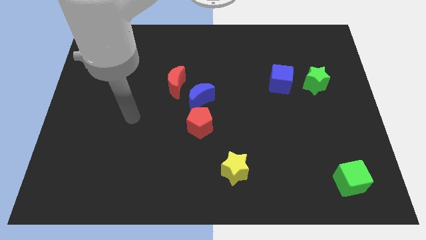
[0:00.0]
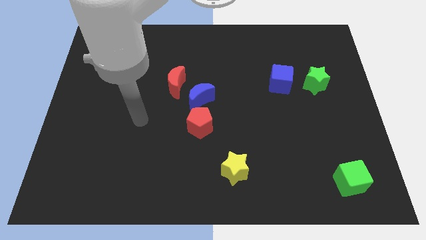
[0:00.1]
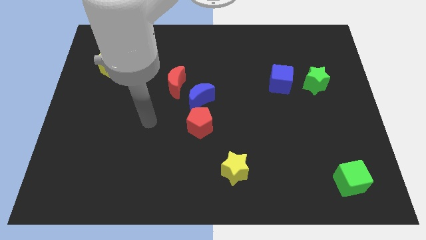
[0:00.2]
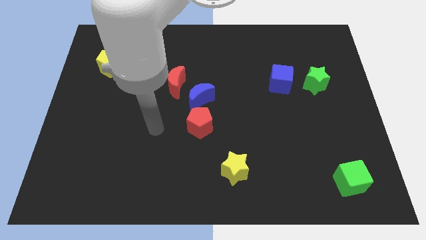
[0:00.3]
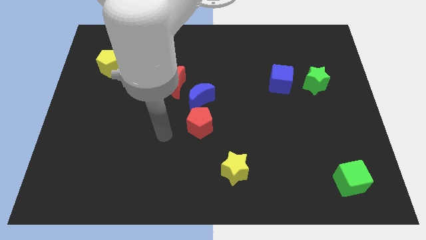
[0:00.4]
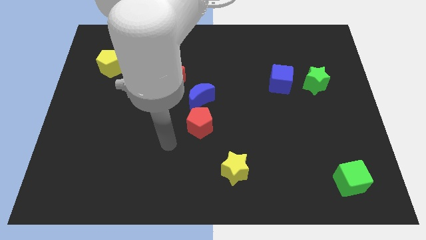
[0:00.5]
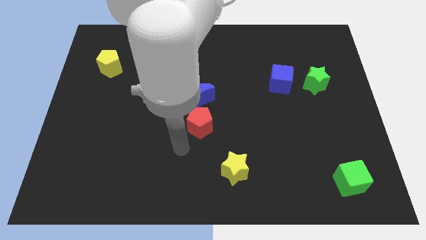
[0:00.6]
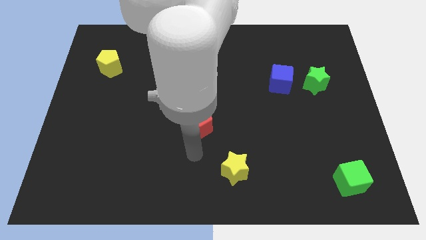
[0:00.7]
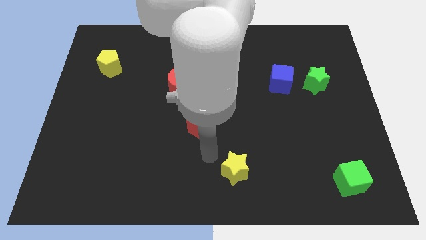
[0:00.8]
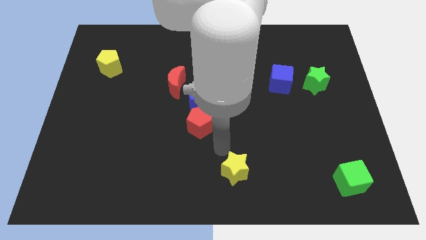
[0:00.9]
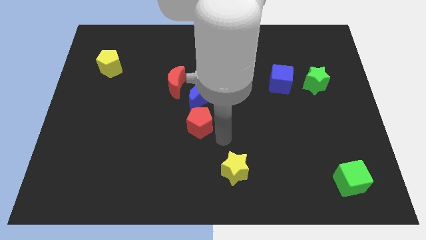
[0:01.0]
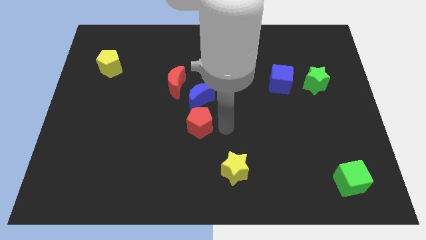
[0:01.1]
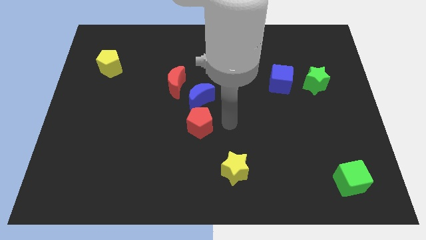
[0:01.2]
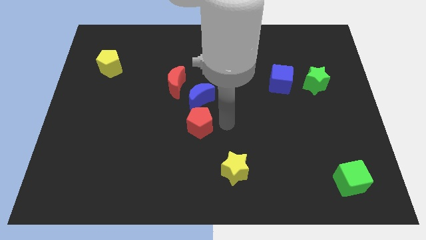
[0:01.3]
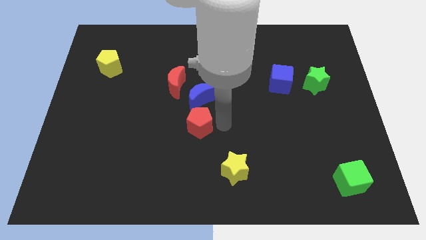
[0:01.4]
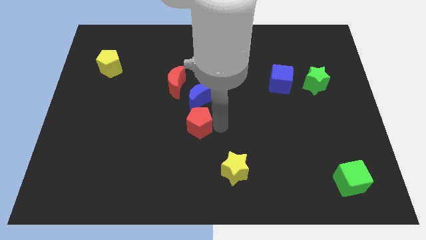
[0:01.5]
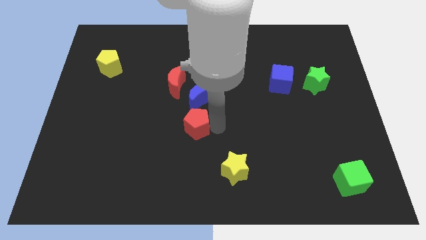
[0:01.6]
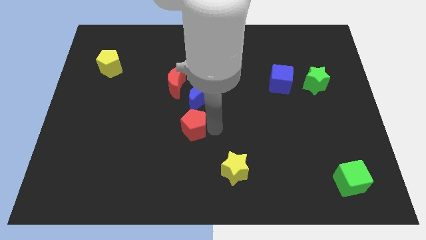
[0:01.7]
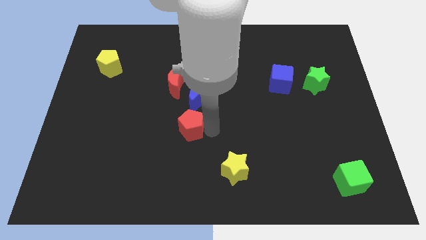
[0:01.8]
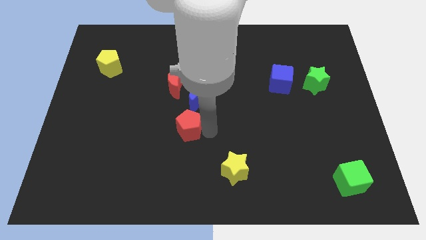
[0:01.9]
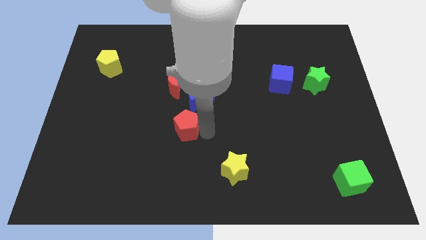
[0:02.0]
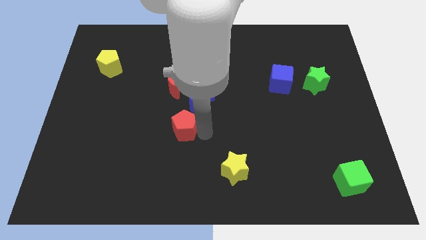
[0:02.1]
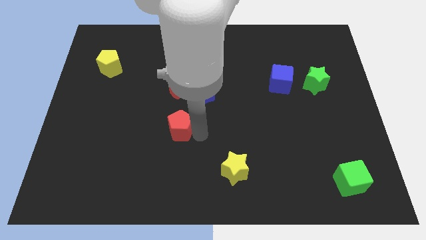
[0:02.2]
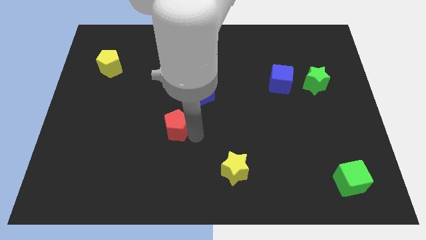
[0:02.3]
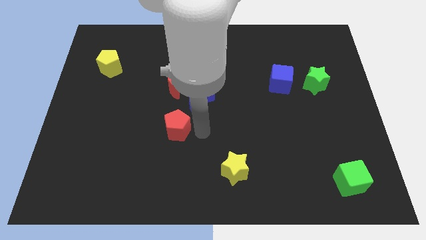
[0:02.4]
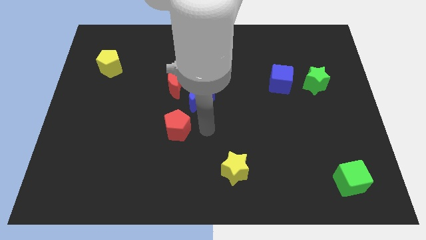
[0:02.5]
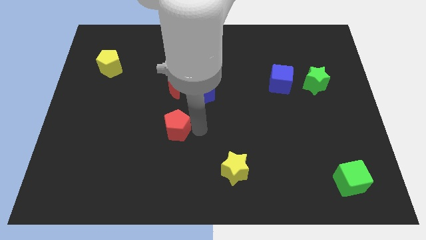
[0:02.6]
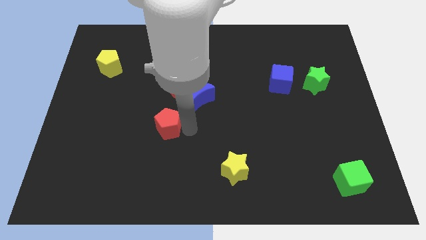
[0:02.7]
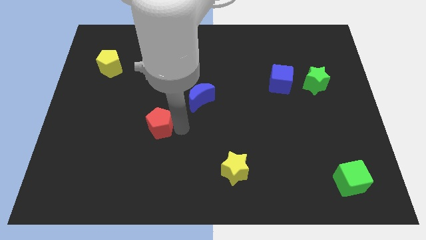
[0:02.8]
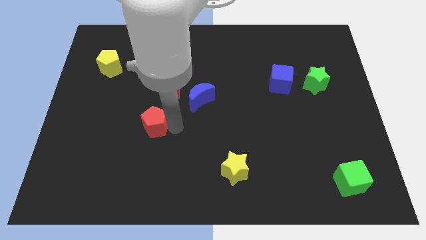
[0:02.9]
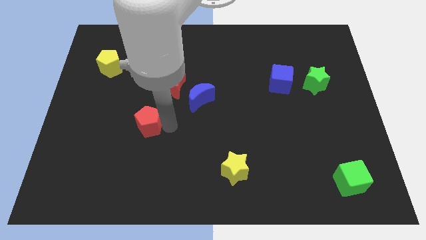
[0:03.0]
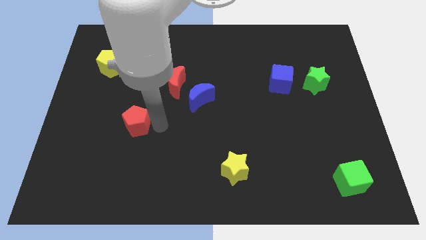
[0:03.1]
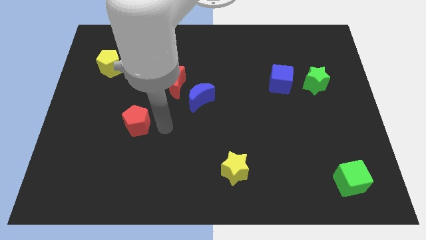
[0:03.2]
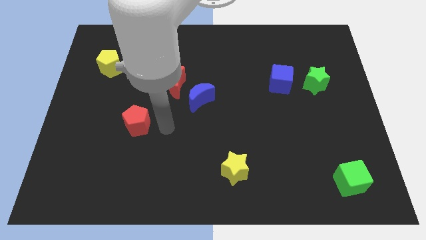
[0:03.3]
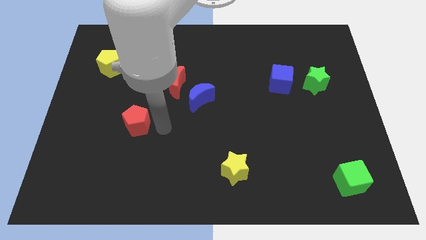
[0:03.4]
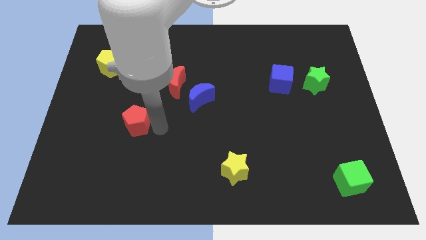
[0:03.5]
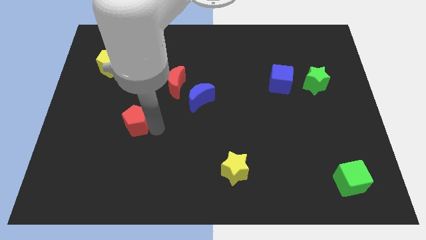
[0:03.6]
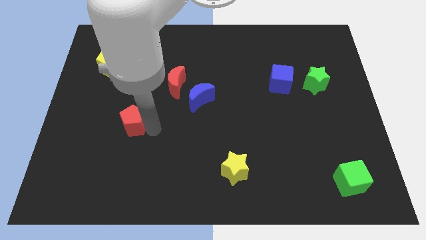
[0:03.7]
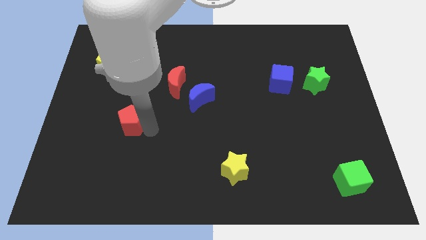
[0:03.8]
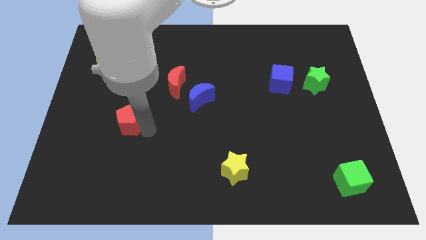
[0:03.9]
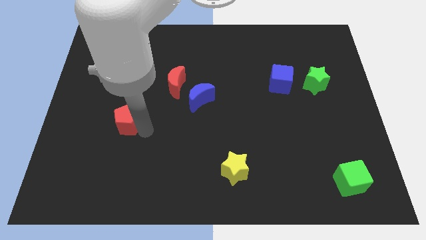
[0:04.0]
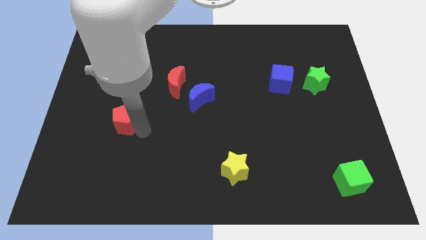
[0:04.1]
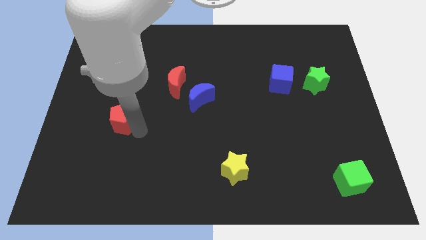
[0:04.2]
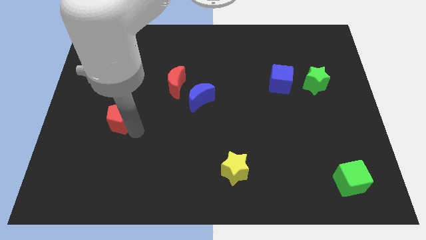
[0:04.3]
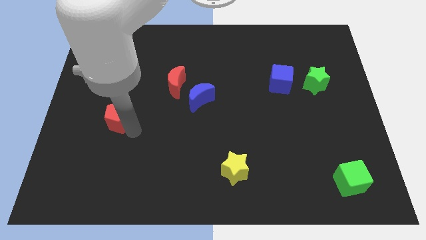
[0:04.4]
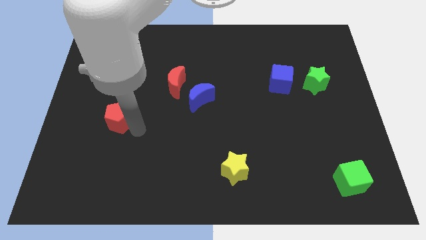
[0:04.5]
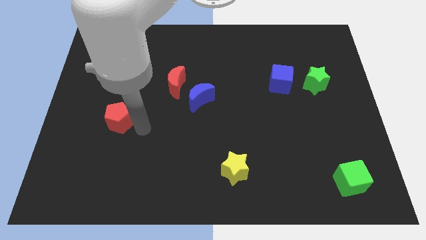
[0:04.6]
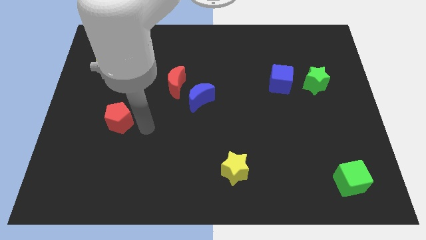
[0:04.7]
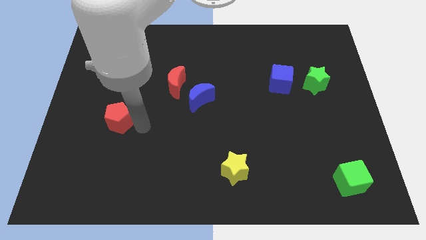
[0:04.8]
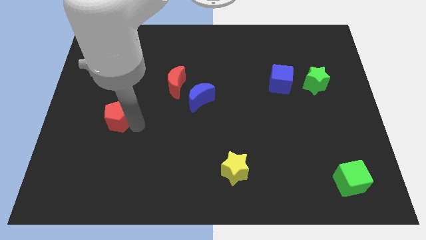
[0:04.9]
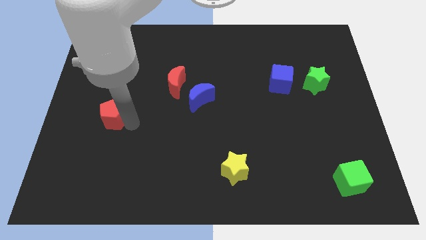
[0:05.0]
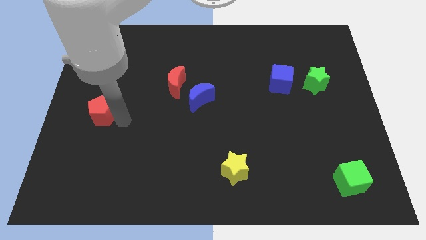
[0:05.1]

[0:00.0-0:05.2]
slide the red pentagon to the left side

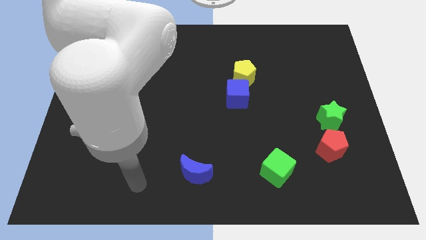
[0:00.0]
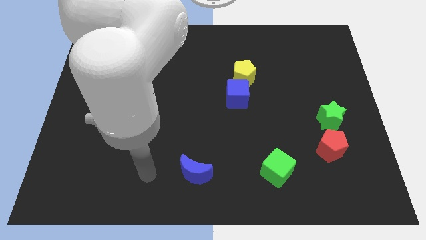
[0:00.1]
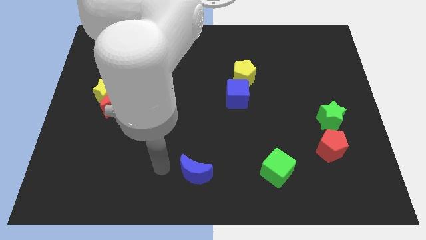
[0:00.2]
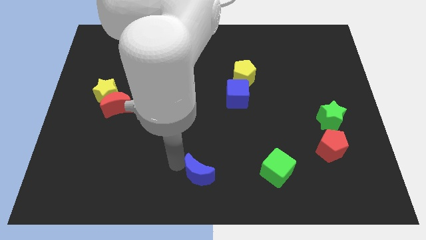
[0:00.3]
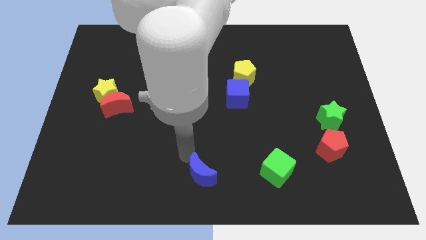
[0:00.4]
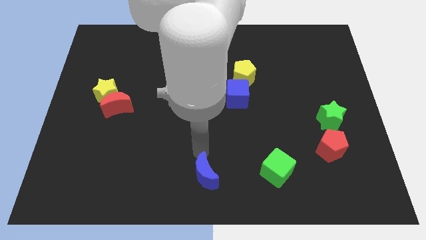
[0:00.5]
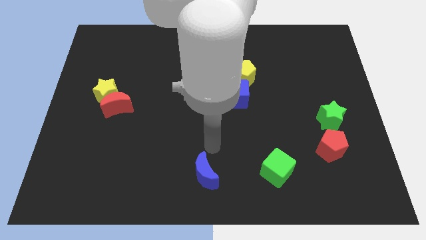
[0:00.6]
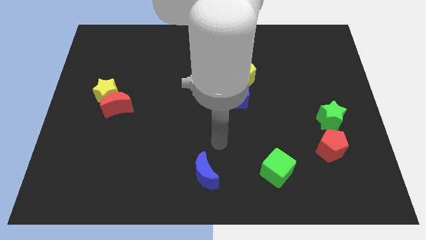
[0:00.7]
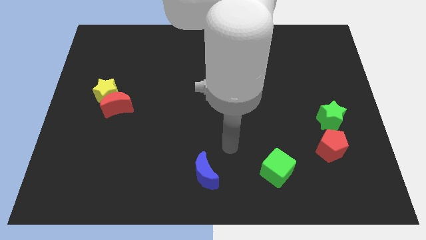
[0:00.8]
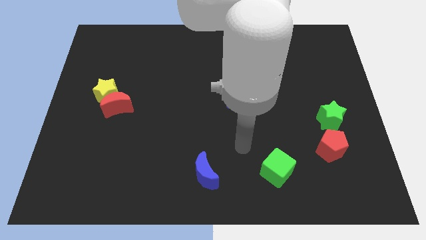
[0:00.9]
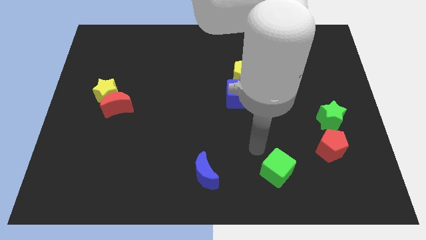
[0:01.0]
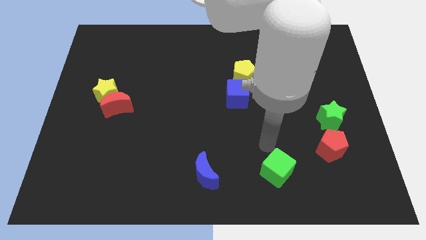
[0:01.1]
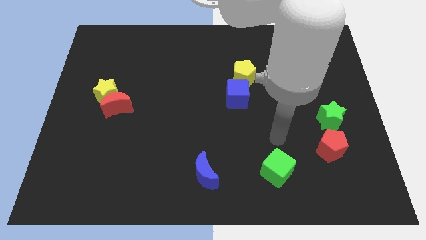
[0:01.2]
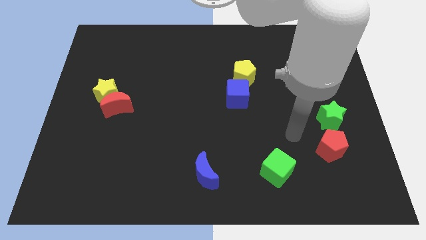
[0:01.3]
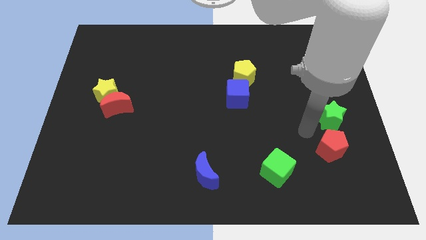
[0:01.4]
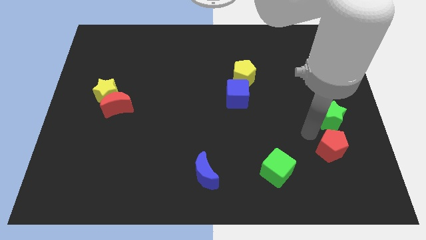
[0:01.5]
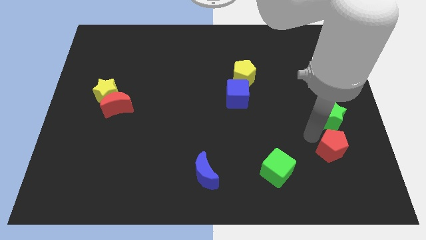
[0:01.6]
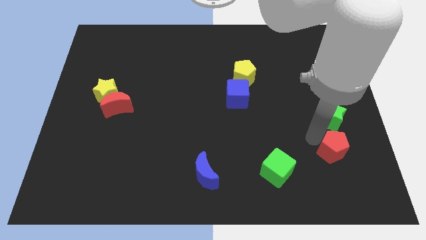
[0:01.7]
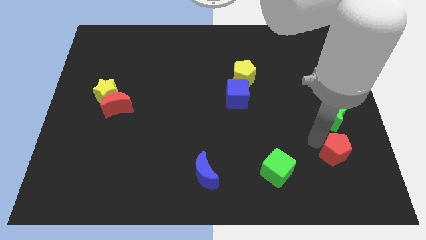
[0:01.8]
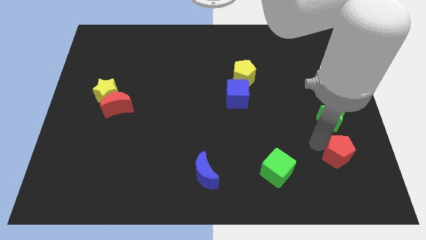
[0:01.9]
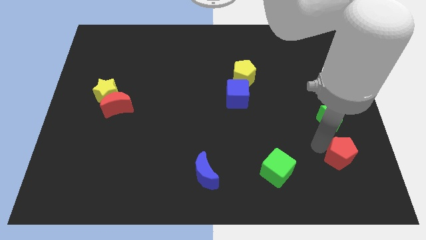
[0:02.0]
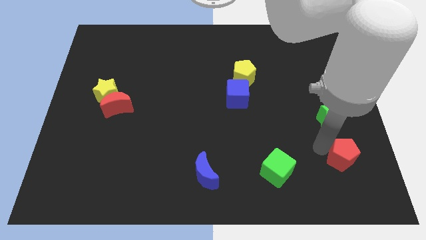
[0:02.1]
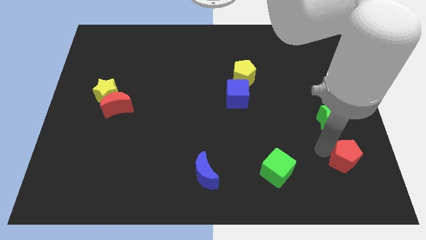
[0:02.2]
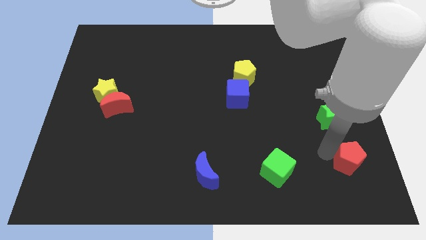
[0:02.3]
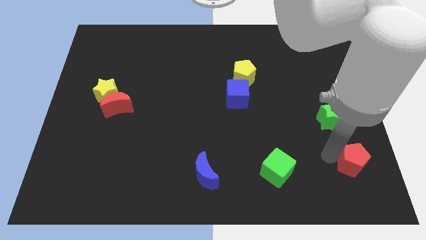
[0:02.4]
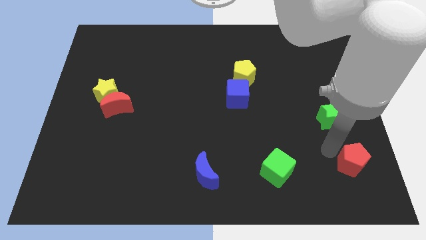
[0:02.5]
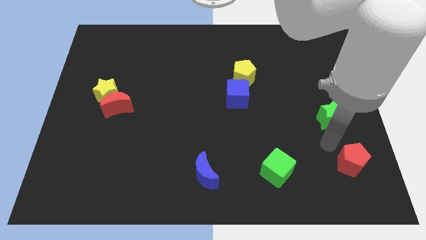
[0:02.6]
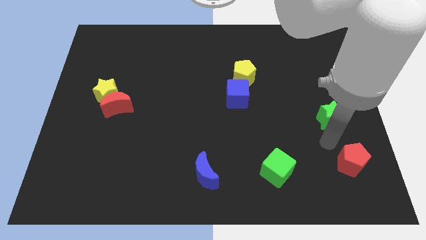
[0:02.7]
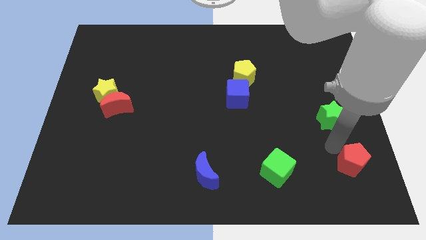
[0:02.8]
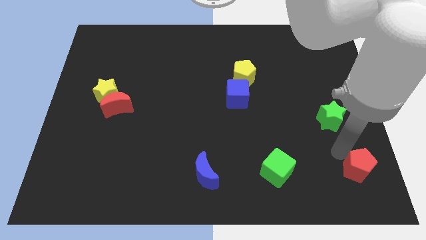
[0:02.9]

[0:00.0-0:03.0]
put the red pentagon to the bottom right of the board
